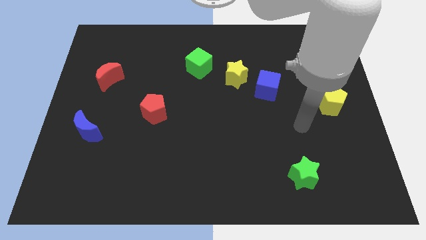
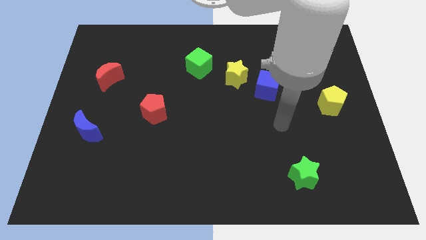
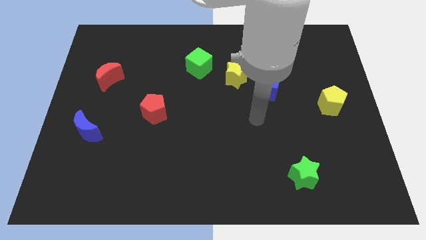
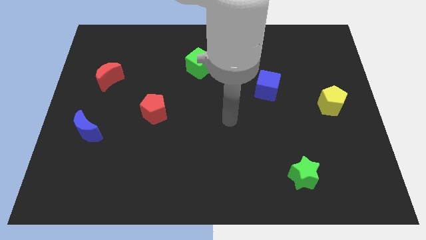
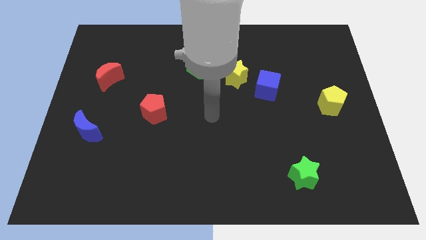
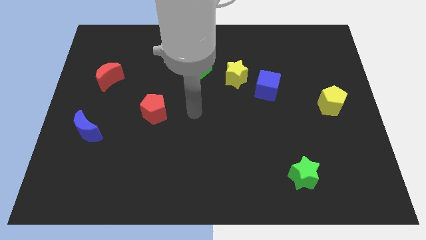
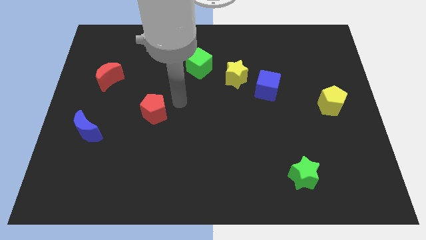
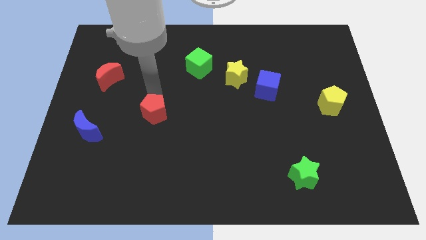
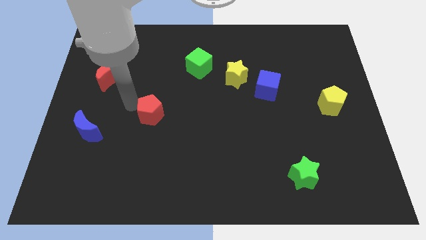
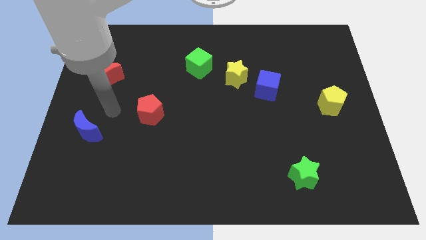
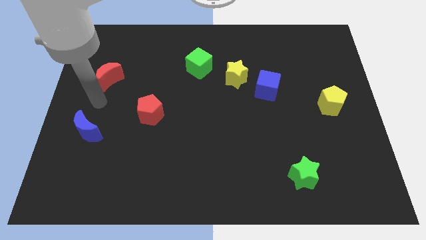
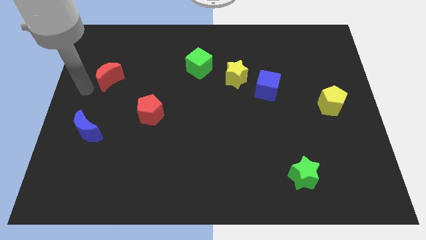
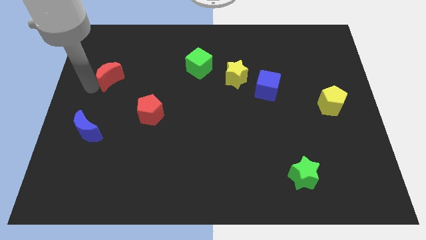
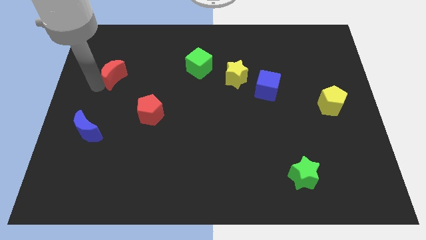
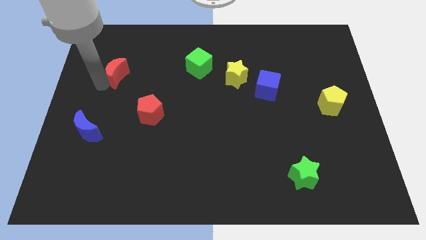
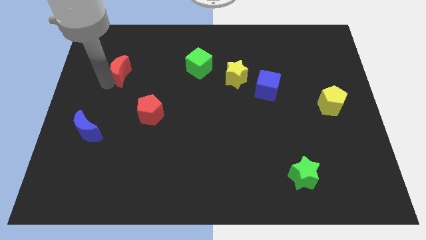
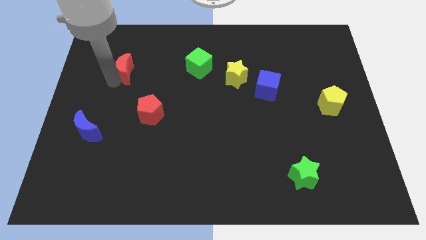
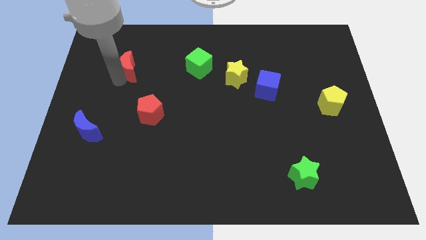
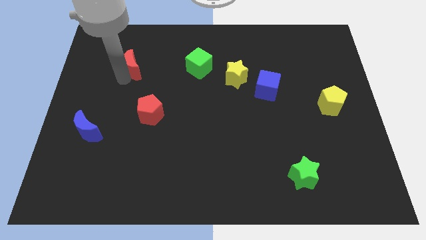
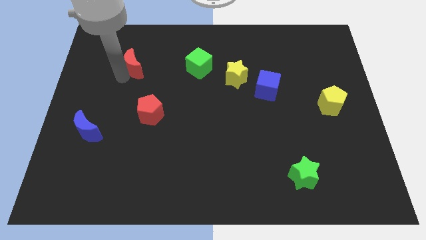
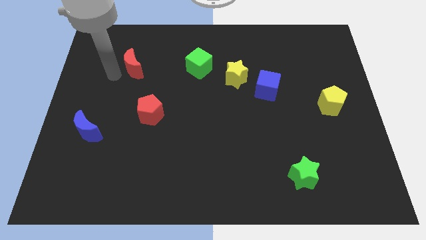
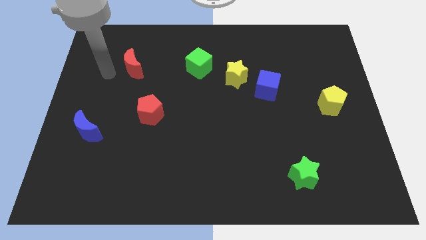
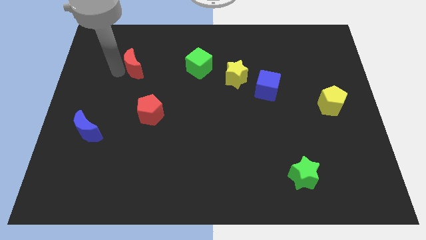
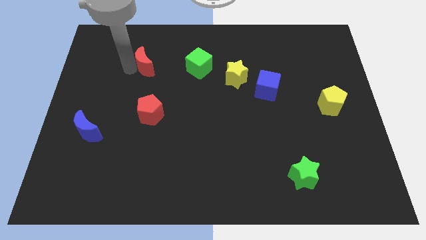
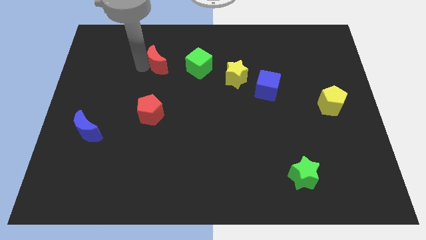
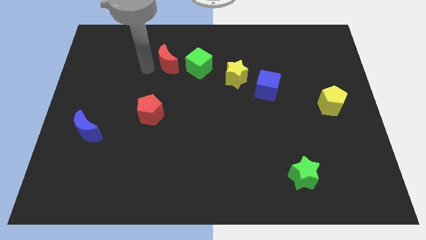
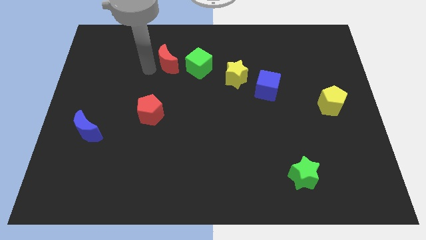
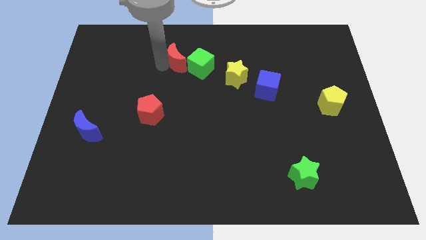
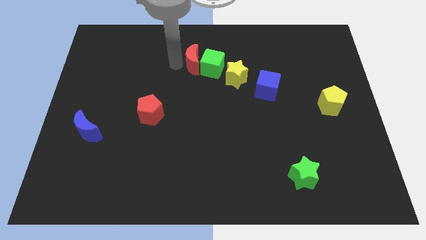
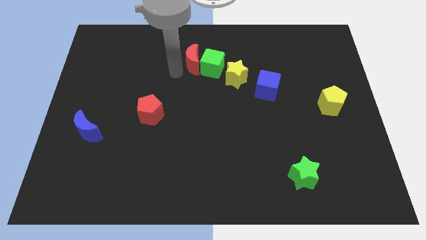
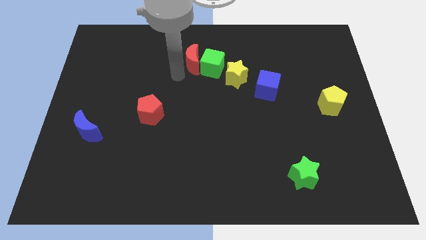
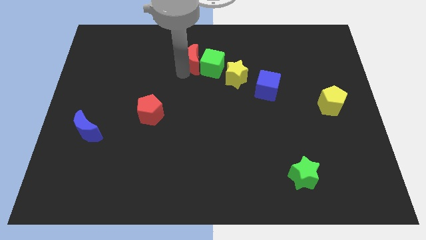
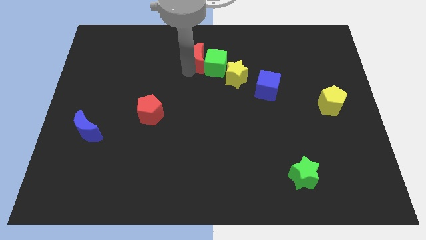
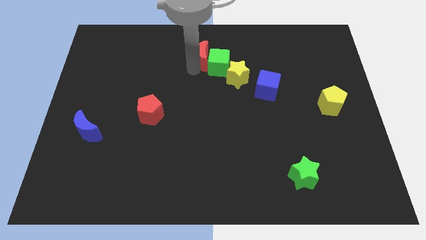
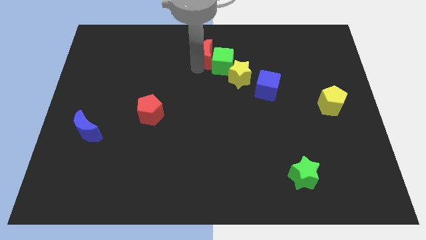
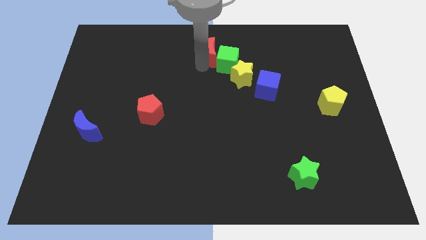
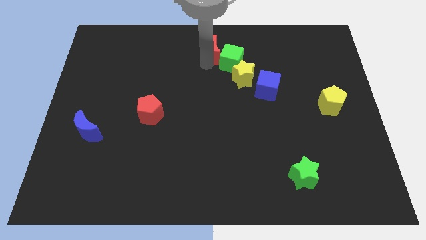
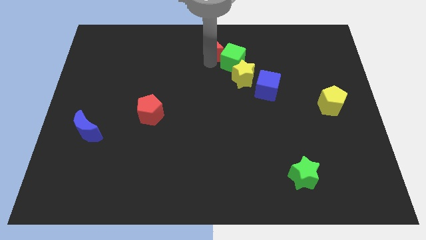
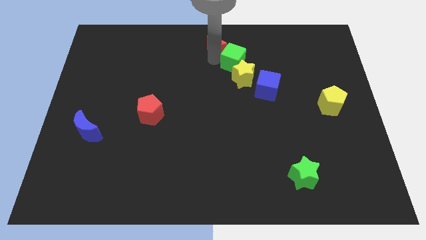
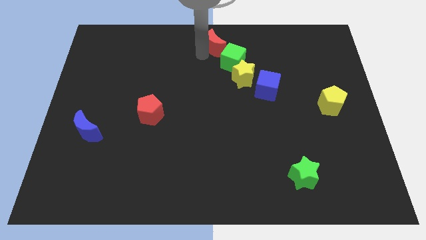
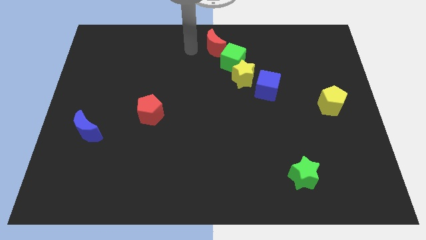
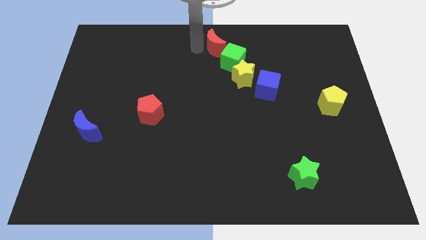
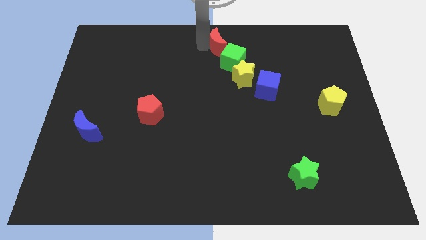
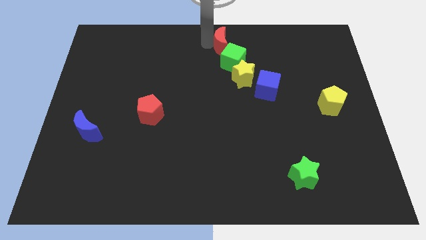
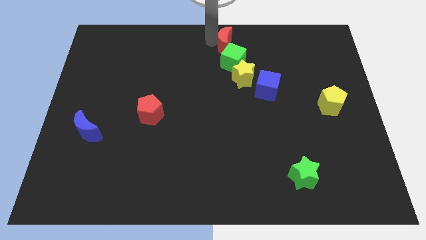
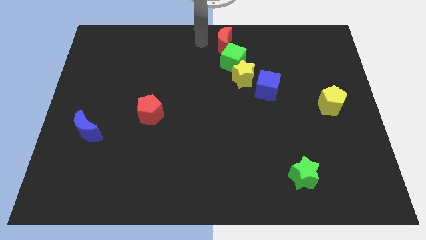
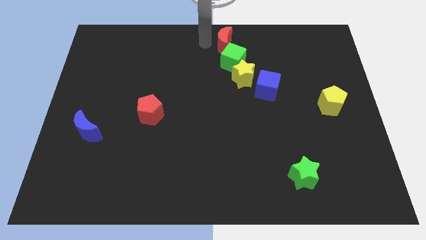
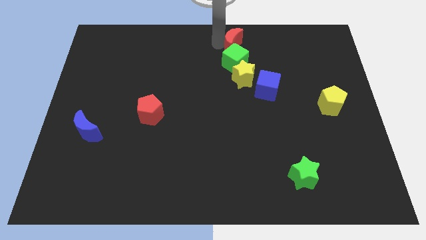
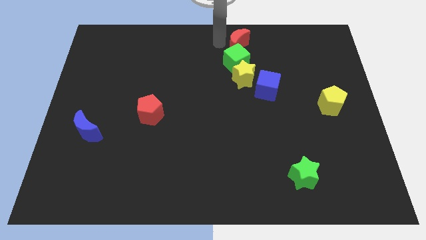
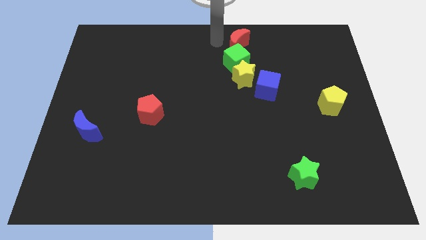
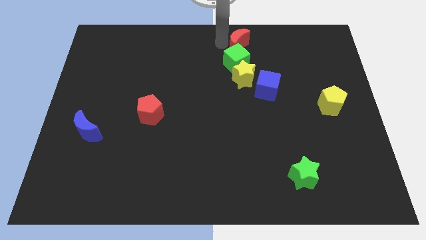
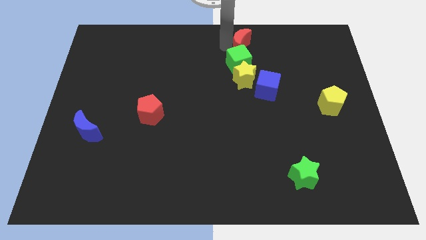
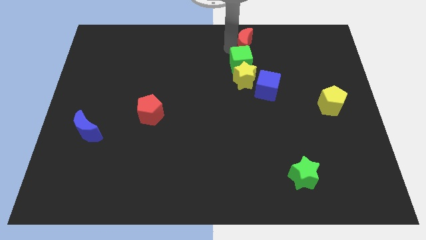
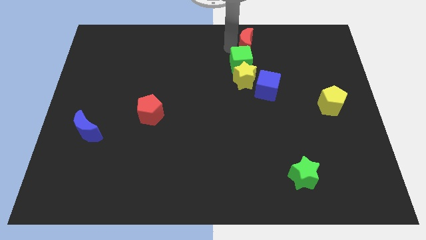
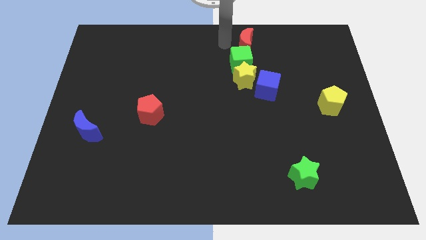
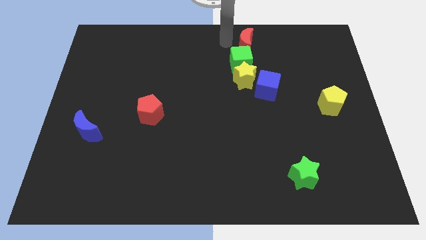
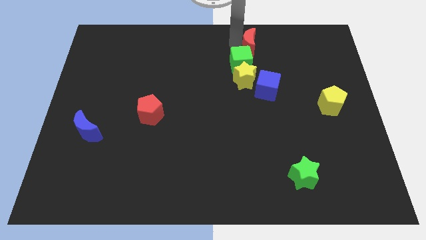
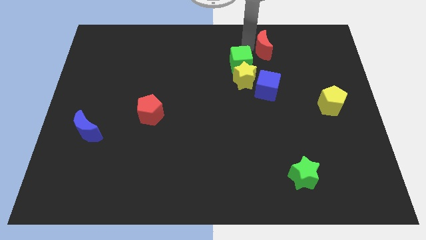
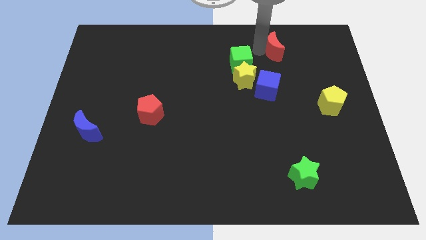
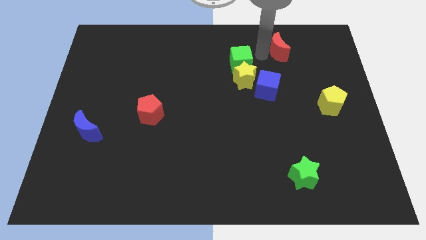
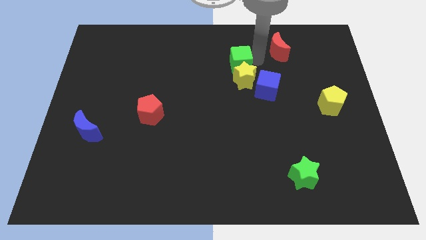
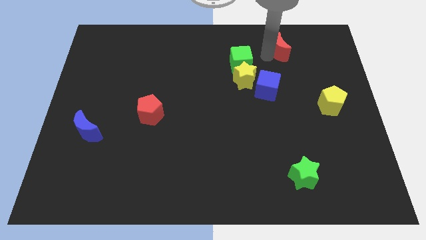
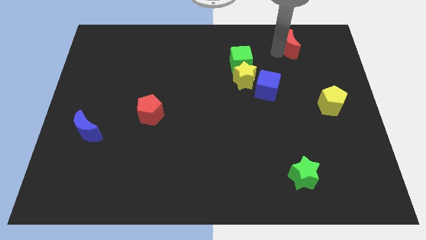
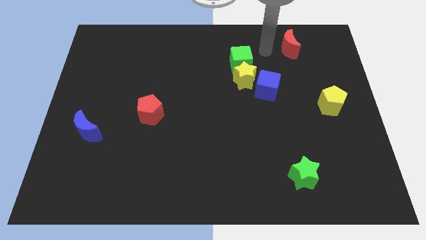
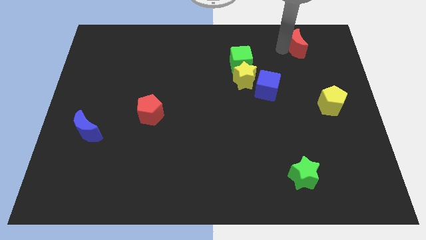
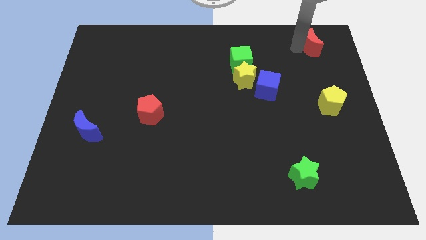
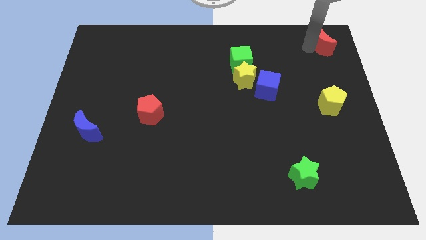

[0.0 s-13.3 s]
slide the red moon to the top right corner
